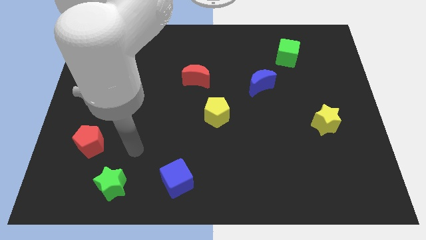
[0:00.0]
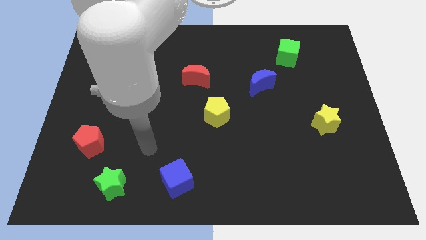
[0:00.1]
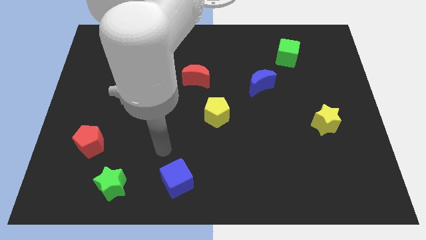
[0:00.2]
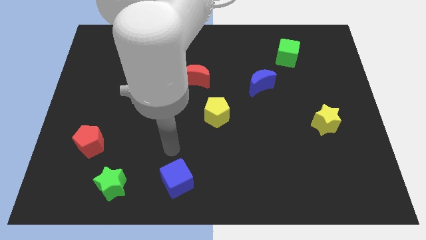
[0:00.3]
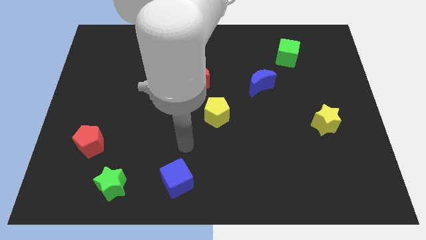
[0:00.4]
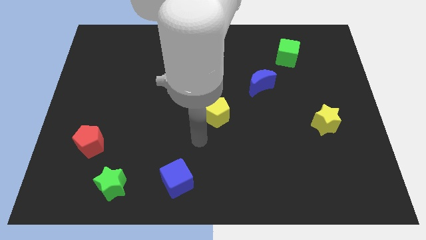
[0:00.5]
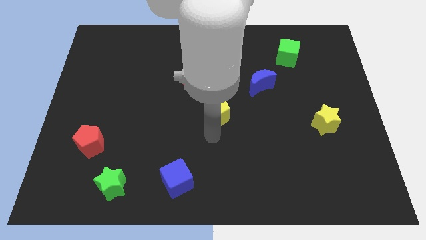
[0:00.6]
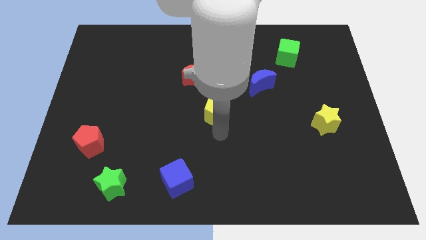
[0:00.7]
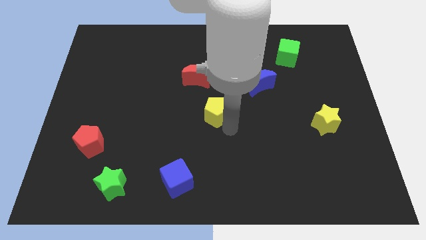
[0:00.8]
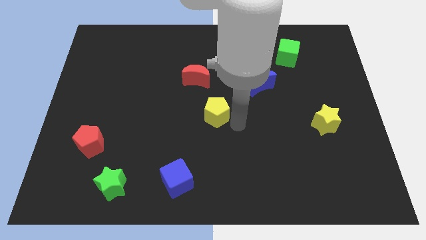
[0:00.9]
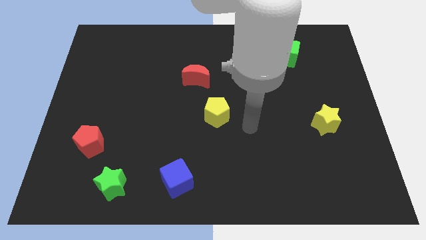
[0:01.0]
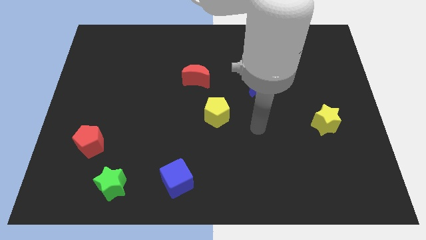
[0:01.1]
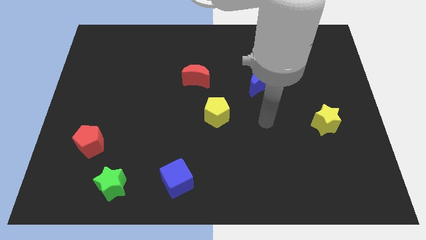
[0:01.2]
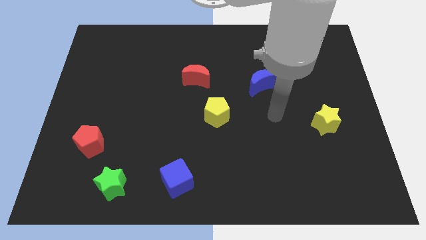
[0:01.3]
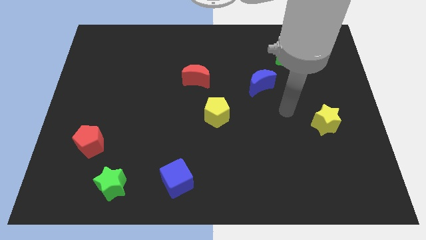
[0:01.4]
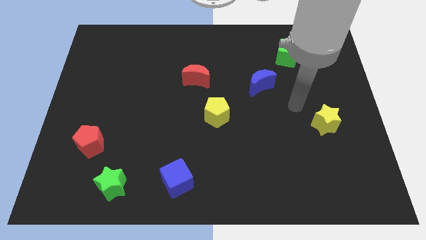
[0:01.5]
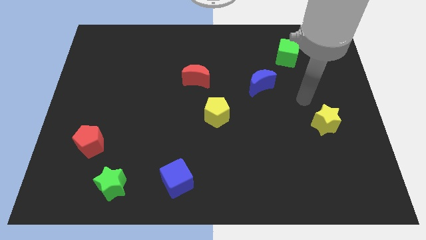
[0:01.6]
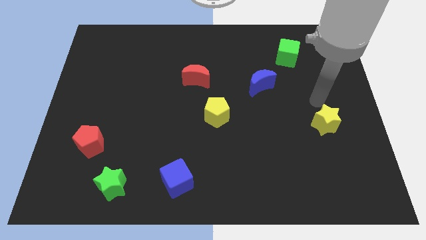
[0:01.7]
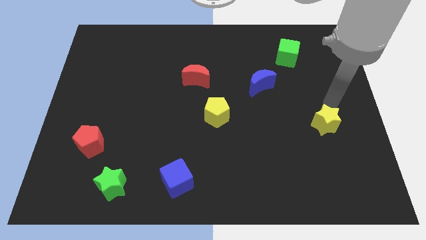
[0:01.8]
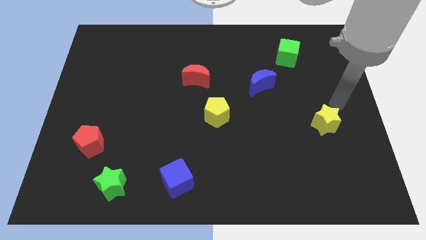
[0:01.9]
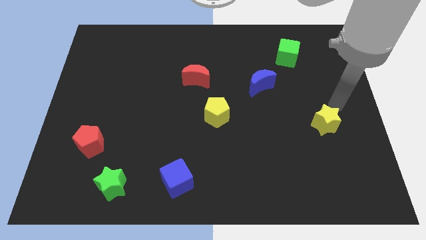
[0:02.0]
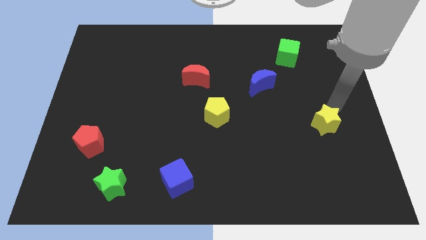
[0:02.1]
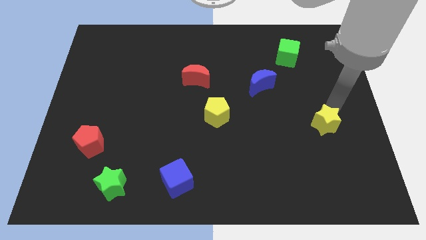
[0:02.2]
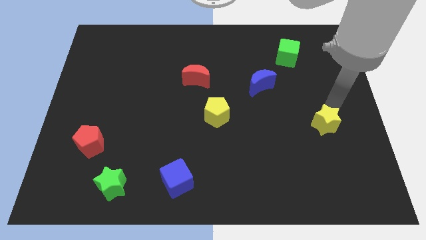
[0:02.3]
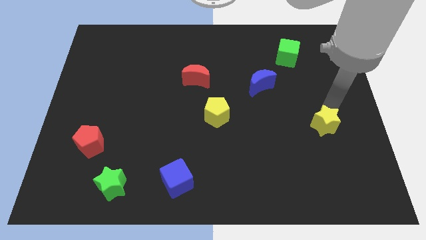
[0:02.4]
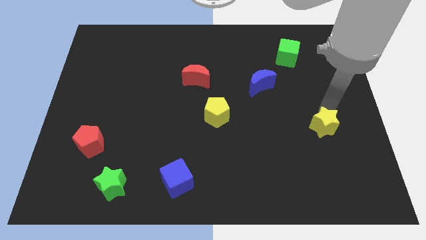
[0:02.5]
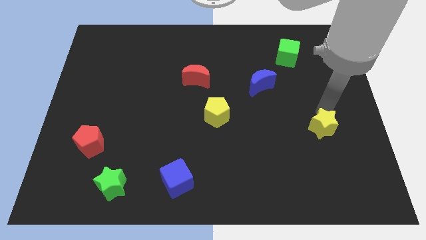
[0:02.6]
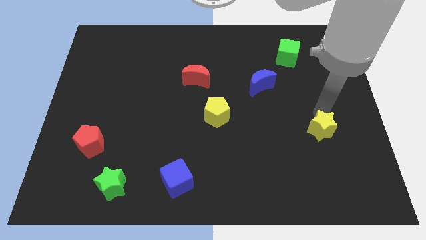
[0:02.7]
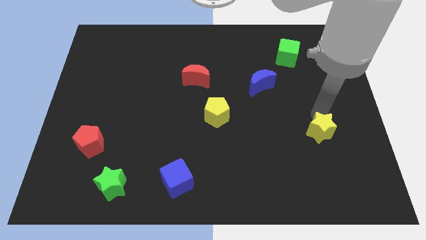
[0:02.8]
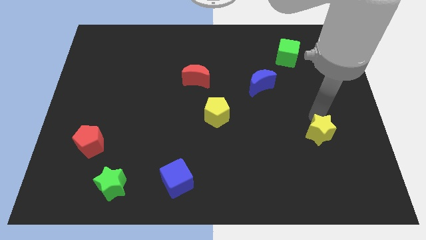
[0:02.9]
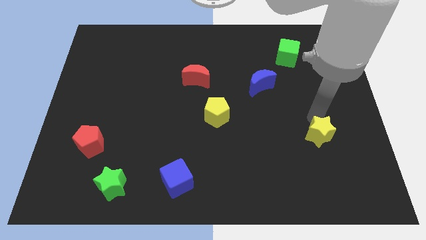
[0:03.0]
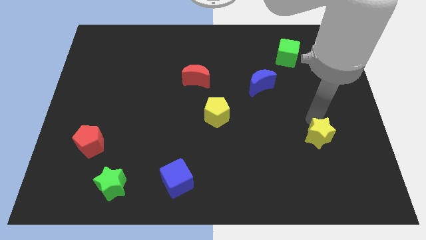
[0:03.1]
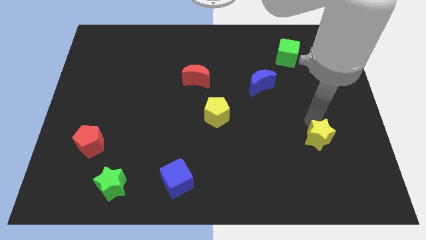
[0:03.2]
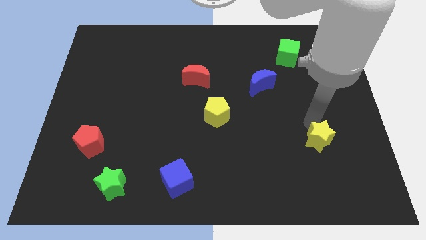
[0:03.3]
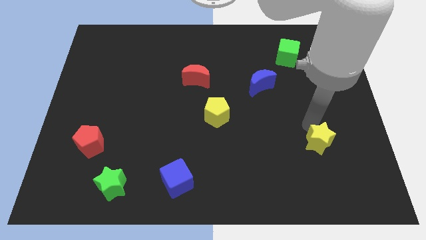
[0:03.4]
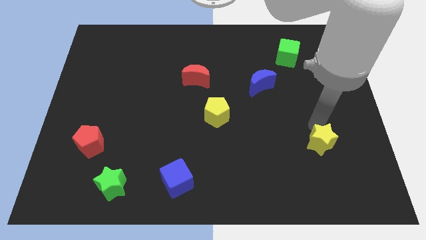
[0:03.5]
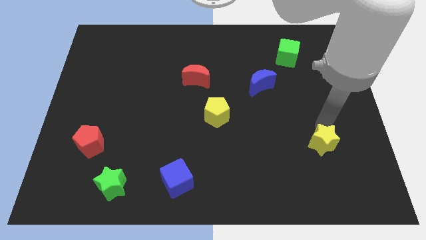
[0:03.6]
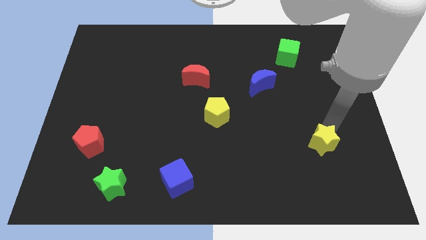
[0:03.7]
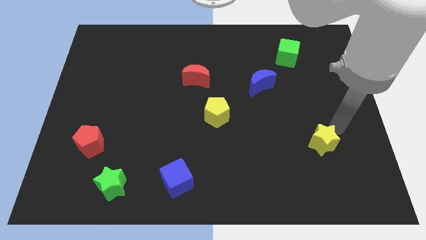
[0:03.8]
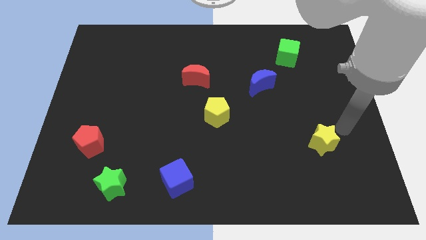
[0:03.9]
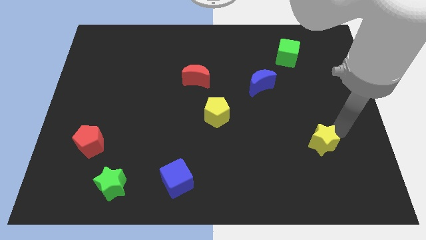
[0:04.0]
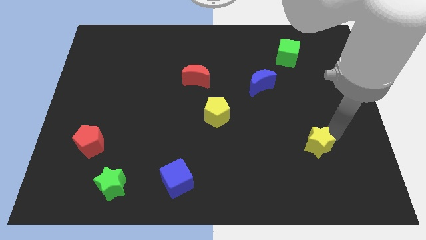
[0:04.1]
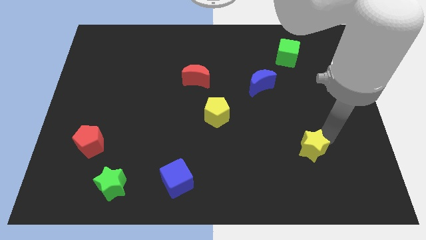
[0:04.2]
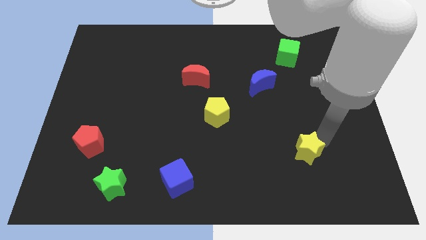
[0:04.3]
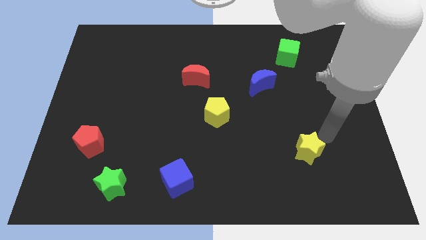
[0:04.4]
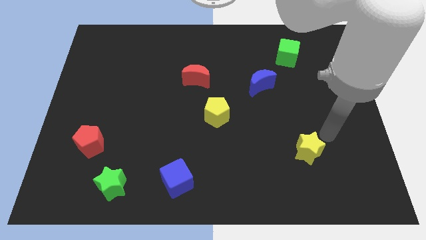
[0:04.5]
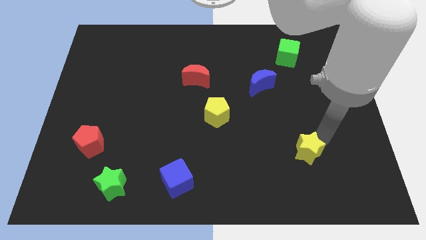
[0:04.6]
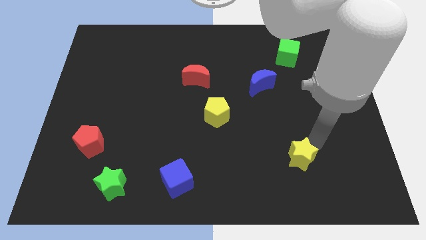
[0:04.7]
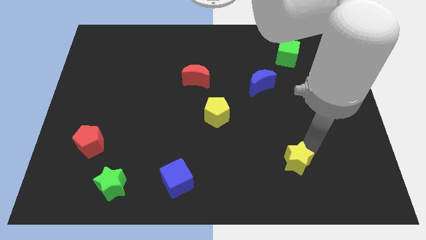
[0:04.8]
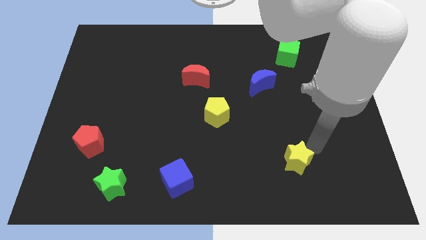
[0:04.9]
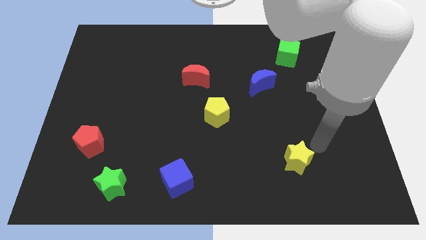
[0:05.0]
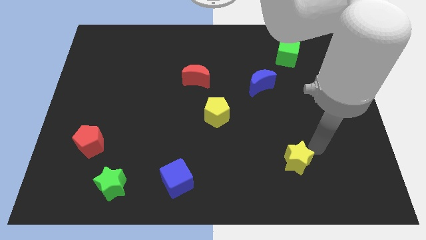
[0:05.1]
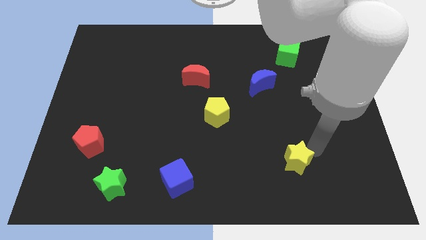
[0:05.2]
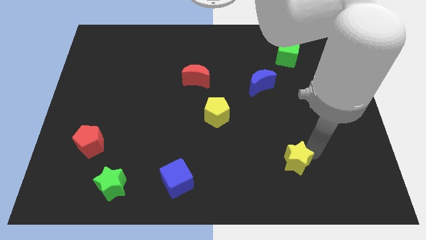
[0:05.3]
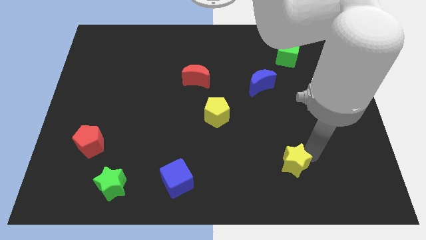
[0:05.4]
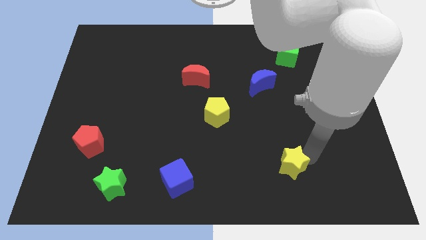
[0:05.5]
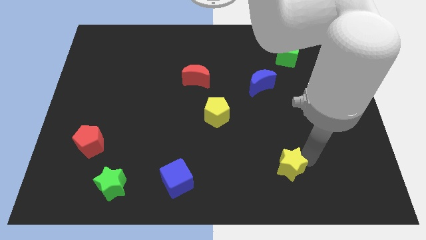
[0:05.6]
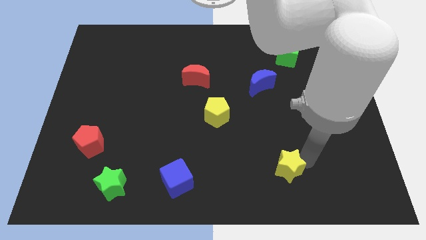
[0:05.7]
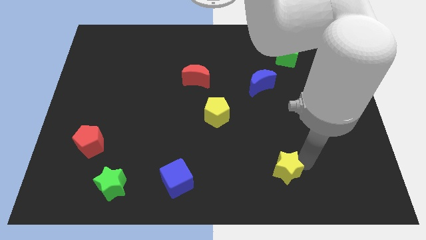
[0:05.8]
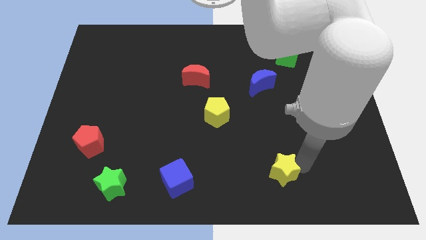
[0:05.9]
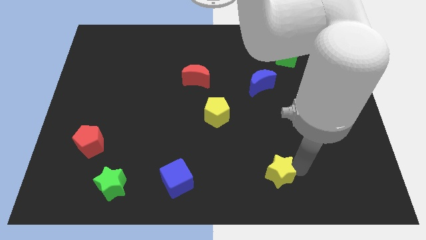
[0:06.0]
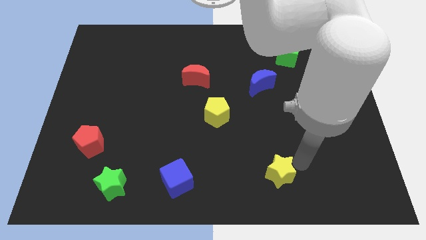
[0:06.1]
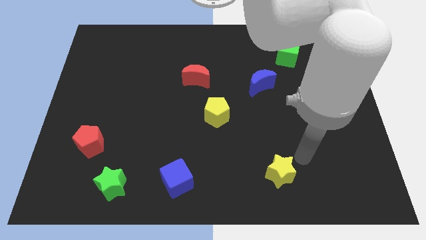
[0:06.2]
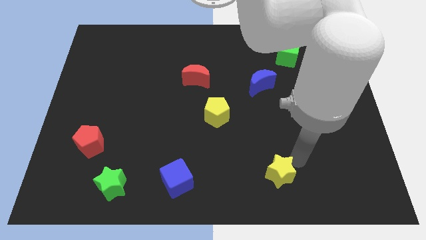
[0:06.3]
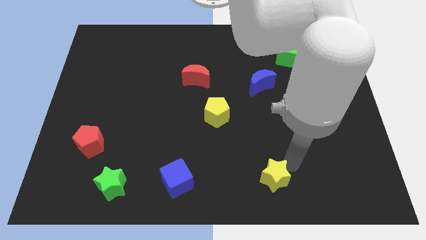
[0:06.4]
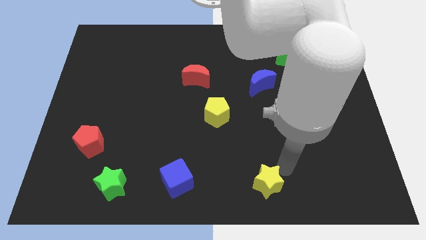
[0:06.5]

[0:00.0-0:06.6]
push the yellow star to the bottom

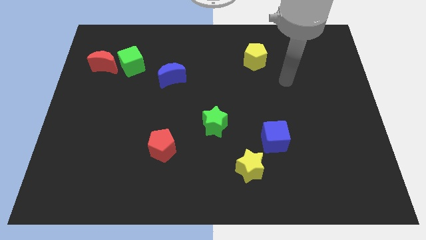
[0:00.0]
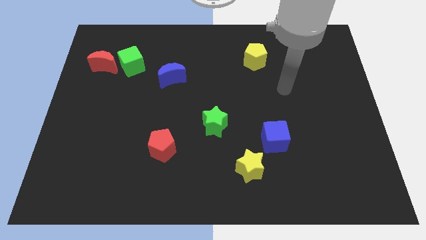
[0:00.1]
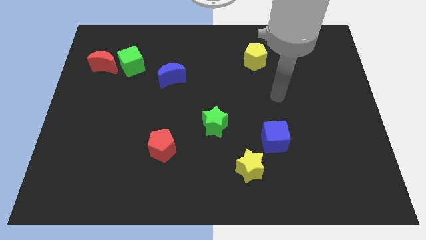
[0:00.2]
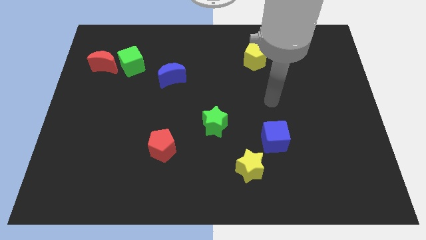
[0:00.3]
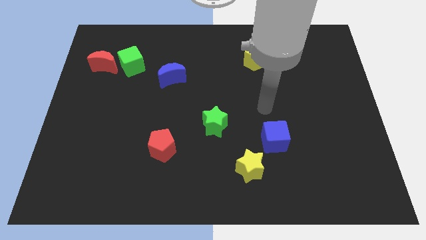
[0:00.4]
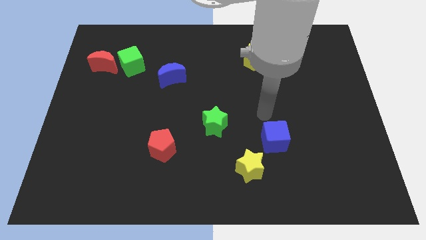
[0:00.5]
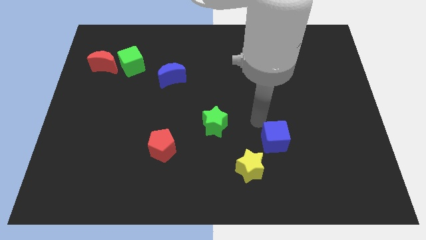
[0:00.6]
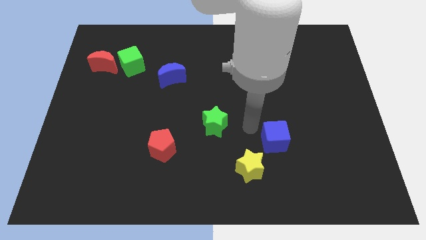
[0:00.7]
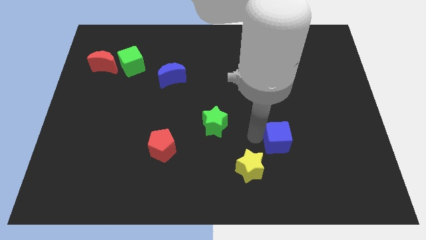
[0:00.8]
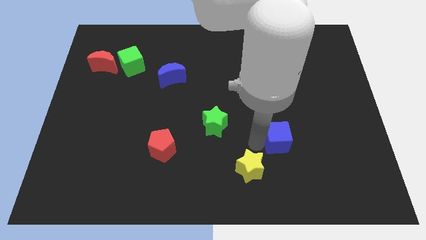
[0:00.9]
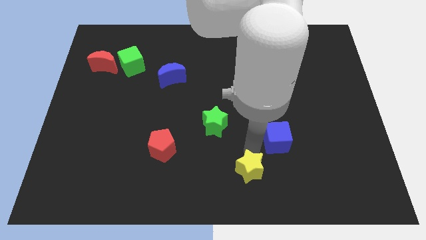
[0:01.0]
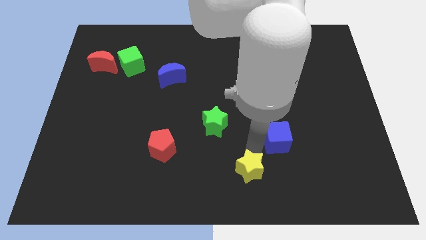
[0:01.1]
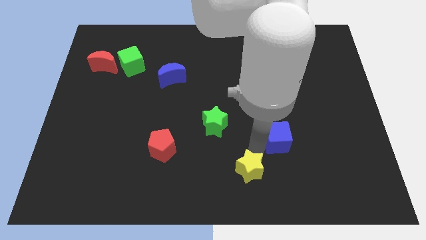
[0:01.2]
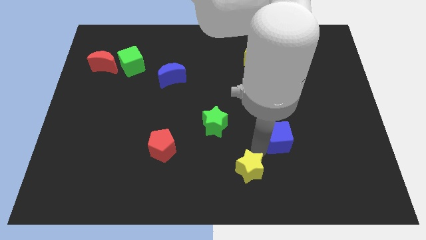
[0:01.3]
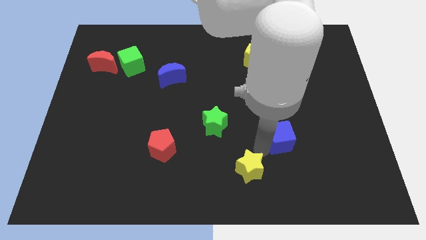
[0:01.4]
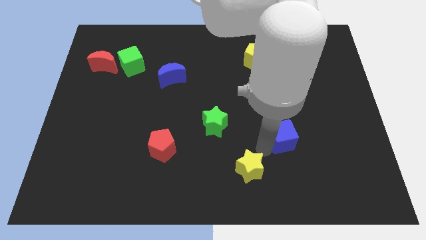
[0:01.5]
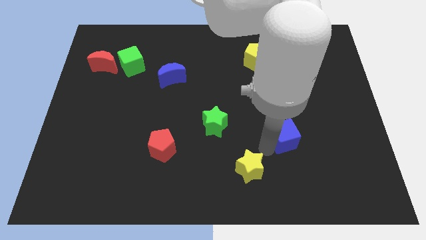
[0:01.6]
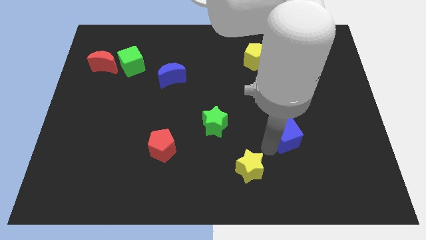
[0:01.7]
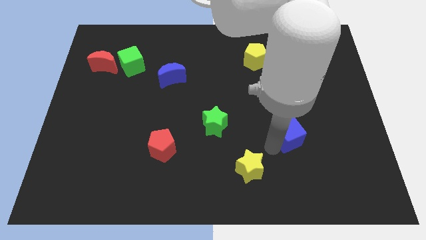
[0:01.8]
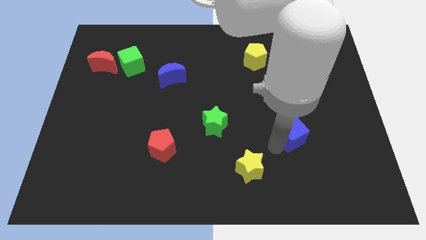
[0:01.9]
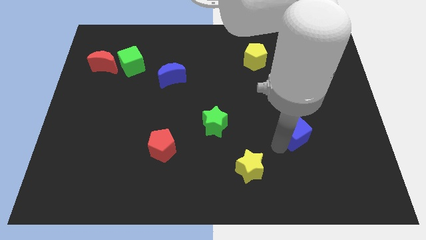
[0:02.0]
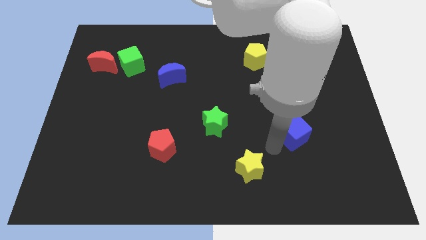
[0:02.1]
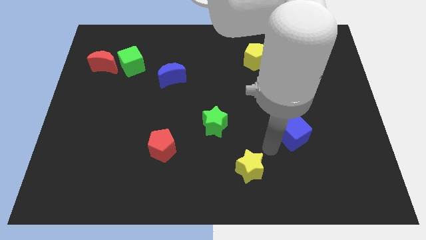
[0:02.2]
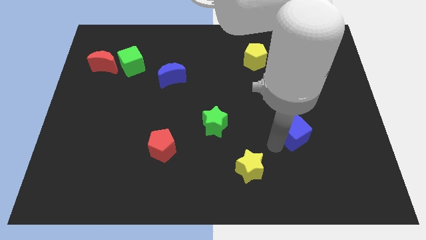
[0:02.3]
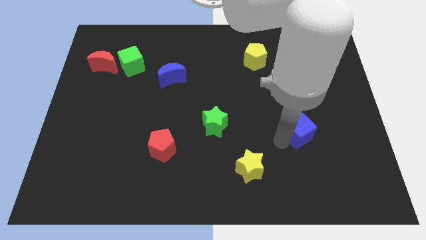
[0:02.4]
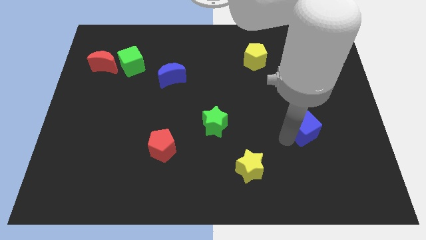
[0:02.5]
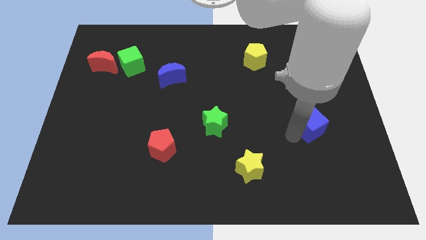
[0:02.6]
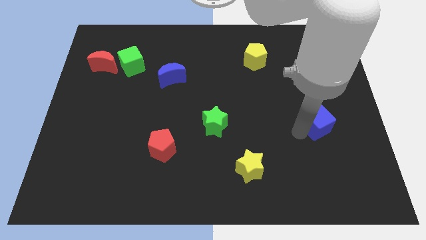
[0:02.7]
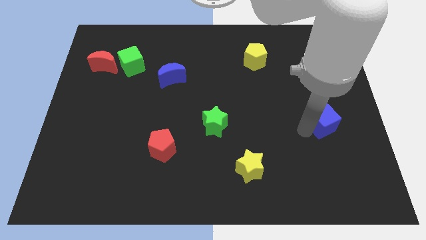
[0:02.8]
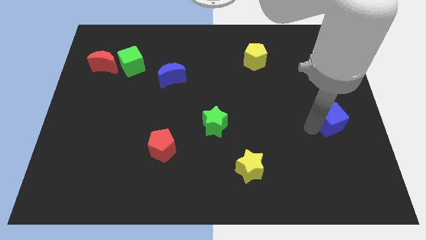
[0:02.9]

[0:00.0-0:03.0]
slide the blue cube to the right side
